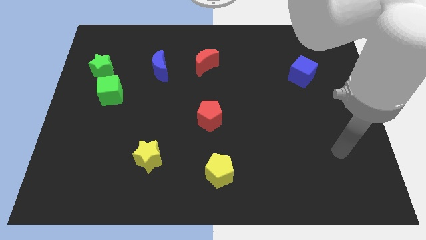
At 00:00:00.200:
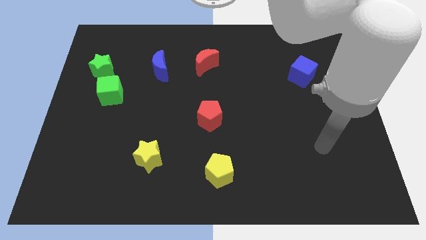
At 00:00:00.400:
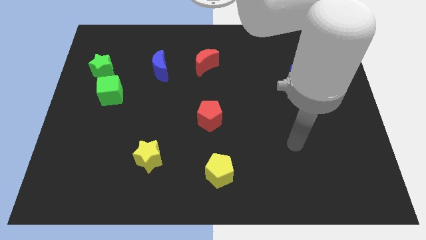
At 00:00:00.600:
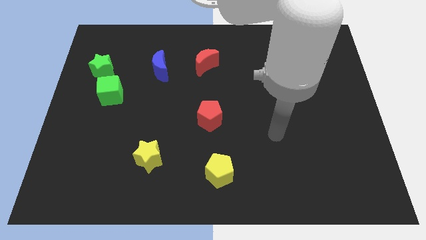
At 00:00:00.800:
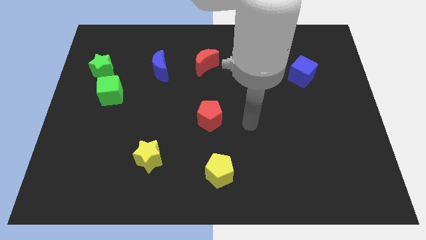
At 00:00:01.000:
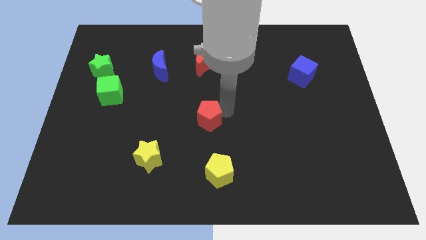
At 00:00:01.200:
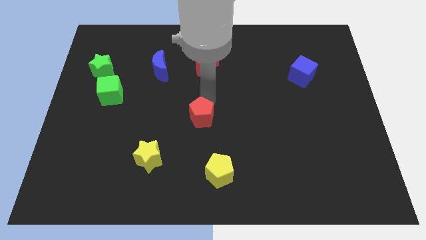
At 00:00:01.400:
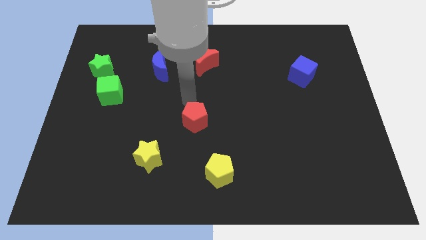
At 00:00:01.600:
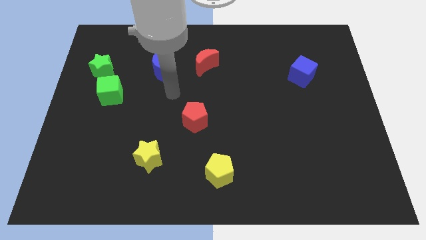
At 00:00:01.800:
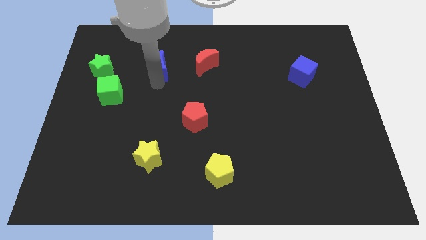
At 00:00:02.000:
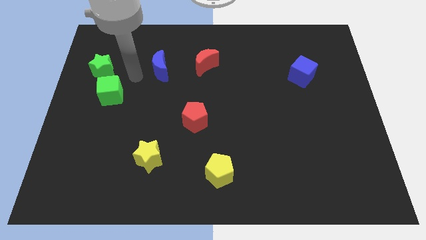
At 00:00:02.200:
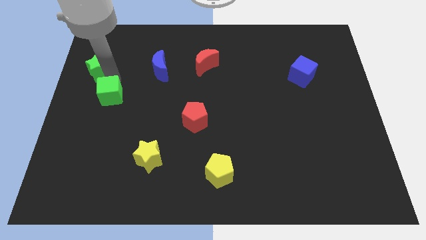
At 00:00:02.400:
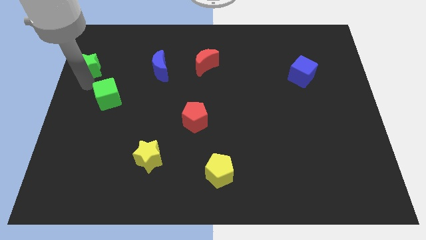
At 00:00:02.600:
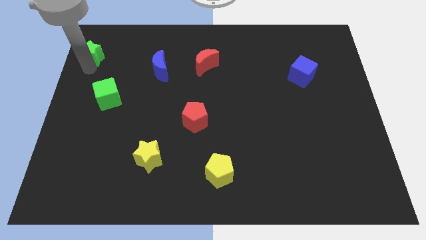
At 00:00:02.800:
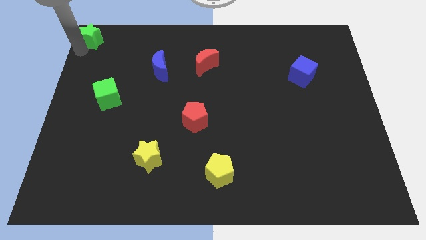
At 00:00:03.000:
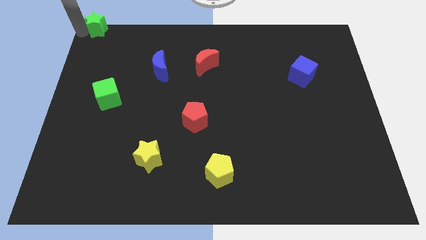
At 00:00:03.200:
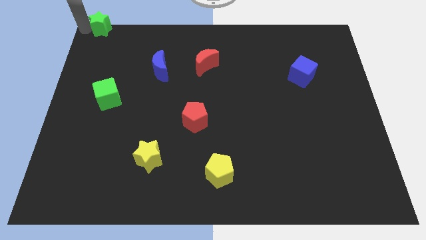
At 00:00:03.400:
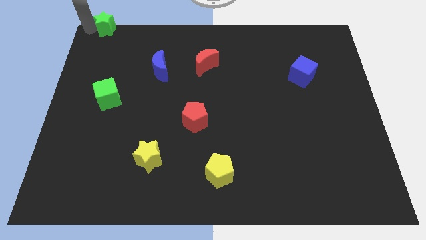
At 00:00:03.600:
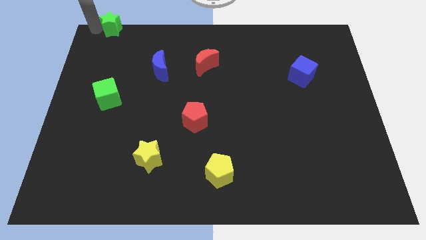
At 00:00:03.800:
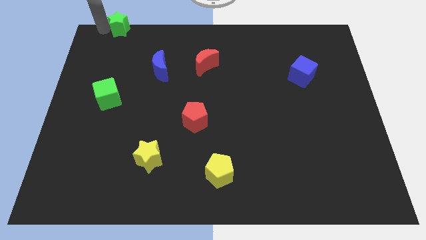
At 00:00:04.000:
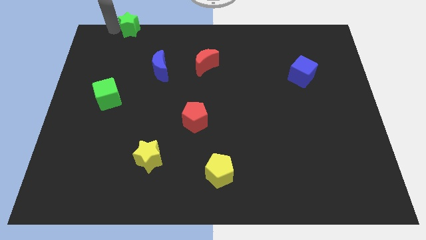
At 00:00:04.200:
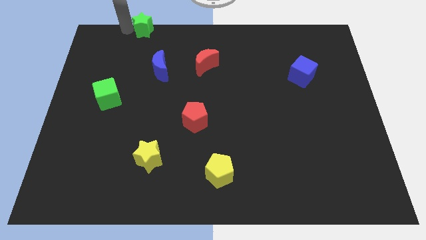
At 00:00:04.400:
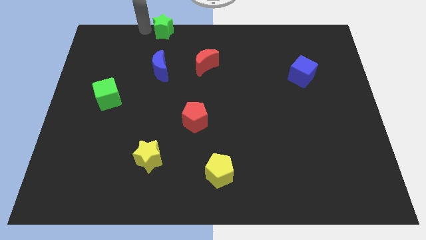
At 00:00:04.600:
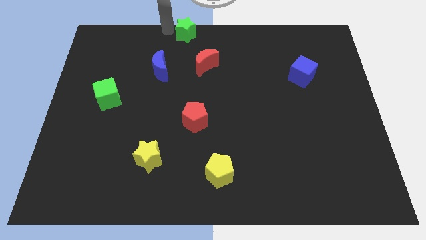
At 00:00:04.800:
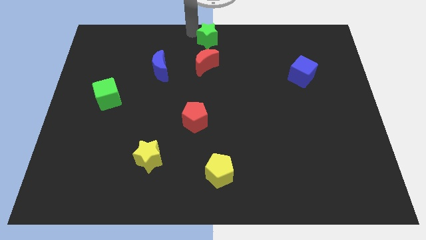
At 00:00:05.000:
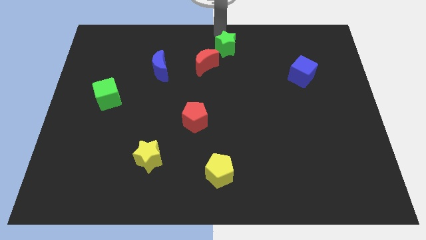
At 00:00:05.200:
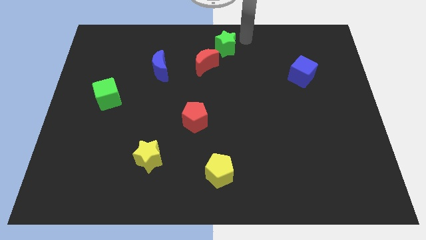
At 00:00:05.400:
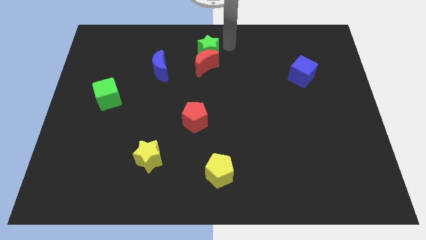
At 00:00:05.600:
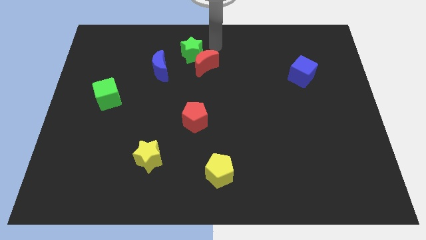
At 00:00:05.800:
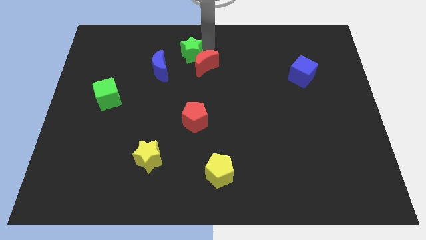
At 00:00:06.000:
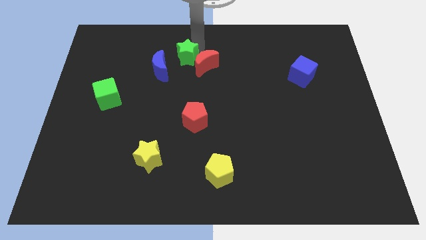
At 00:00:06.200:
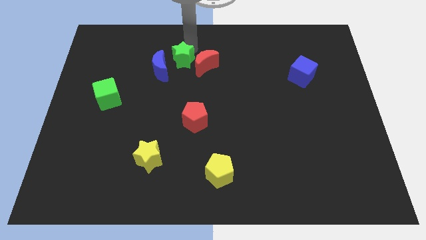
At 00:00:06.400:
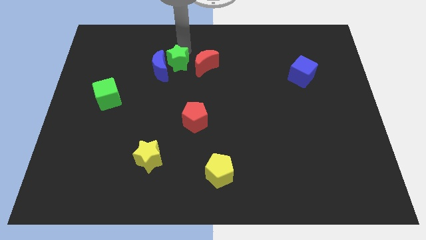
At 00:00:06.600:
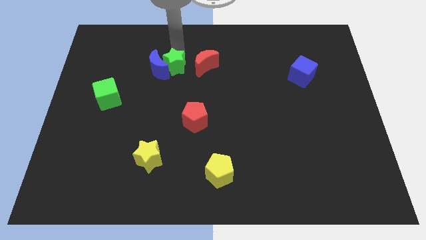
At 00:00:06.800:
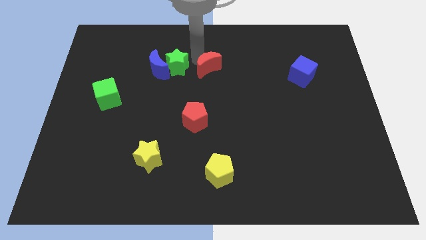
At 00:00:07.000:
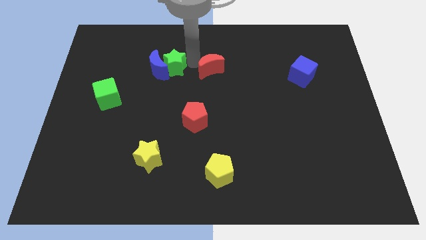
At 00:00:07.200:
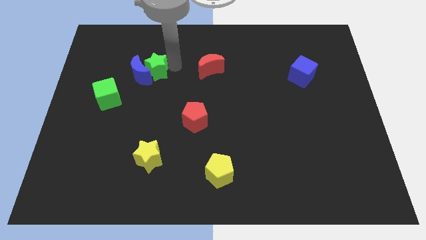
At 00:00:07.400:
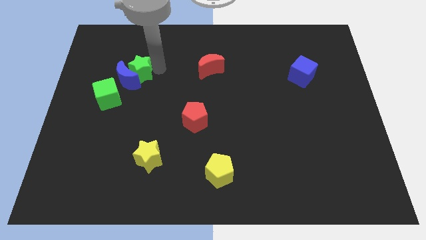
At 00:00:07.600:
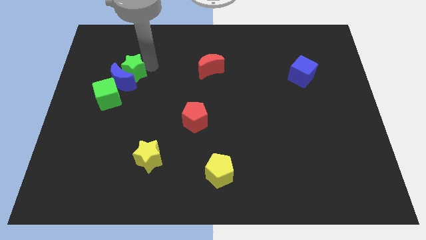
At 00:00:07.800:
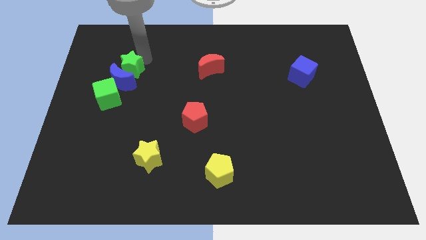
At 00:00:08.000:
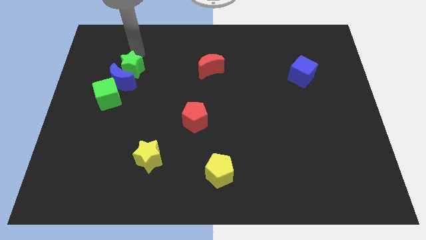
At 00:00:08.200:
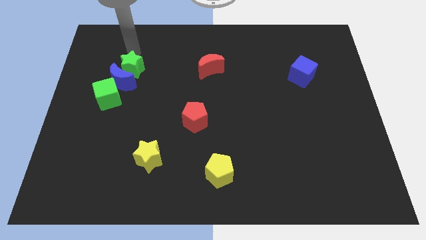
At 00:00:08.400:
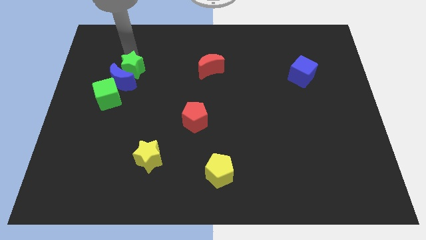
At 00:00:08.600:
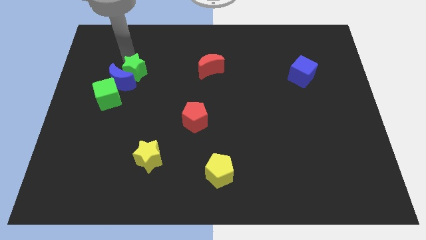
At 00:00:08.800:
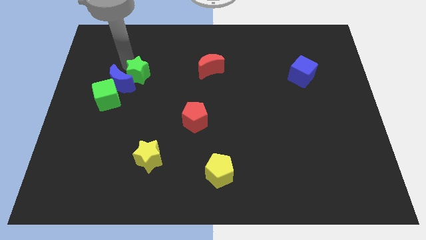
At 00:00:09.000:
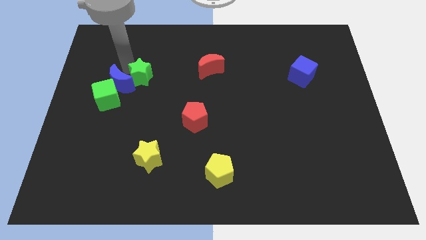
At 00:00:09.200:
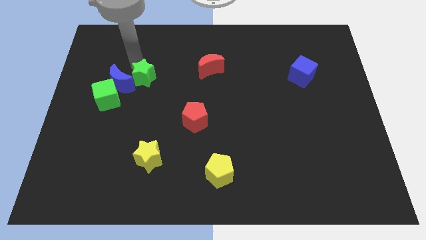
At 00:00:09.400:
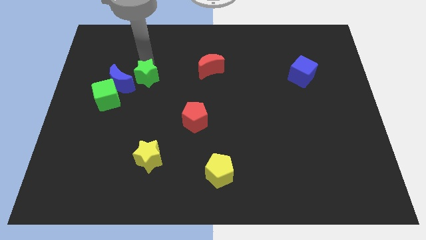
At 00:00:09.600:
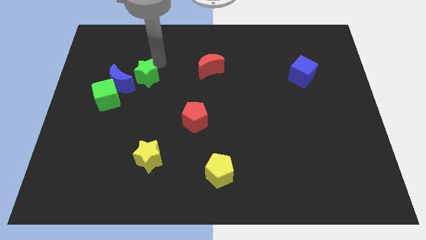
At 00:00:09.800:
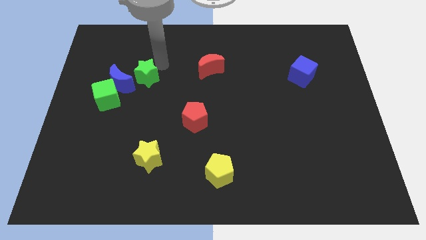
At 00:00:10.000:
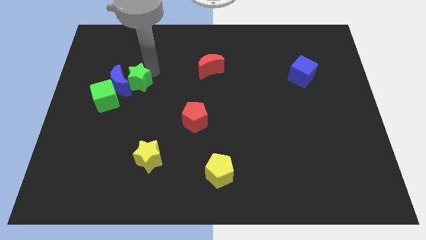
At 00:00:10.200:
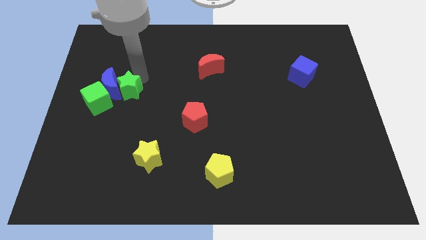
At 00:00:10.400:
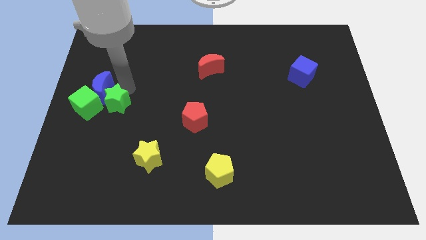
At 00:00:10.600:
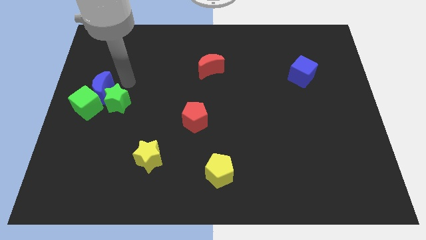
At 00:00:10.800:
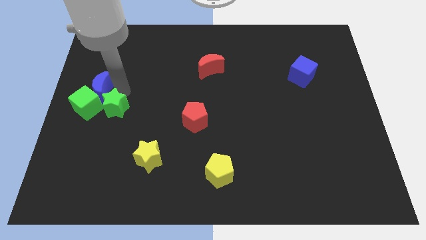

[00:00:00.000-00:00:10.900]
slide the green star to the bottom right side of the green cube

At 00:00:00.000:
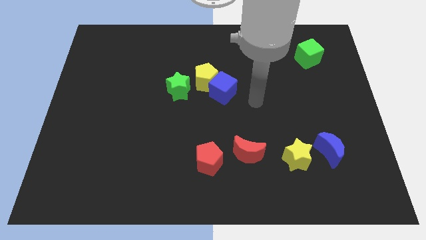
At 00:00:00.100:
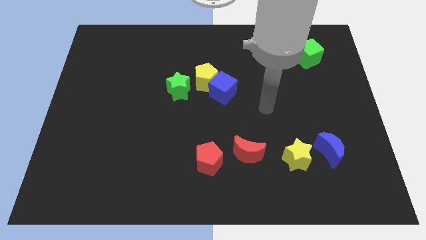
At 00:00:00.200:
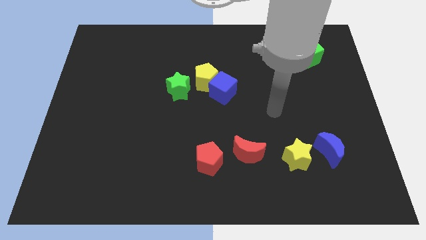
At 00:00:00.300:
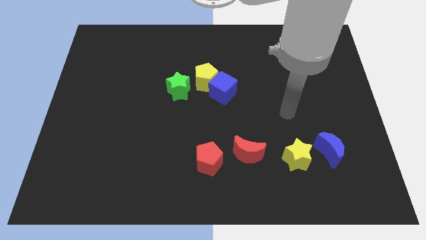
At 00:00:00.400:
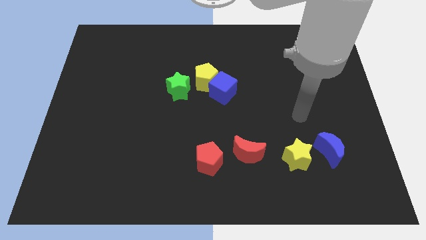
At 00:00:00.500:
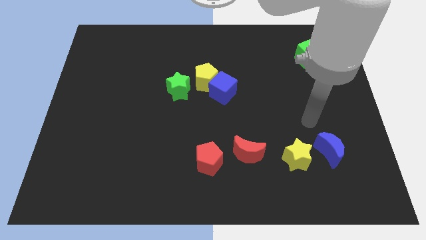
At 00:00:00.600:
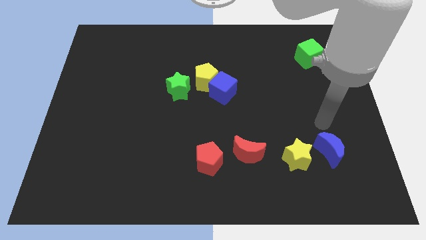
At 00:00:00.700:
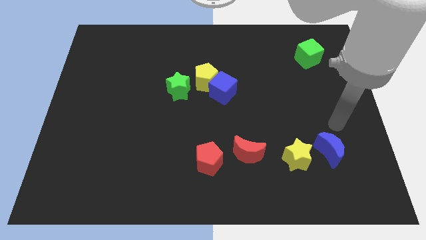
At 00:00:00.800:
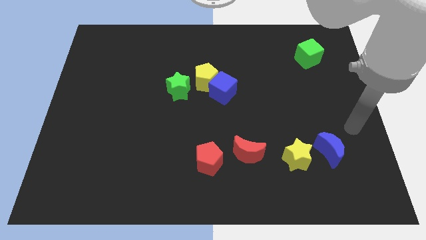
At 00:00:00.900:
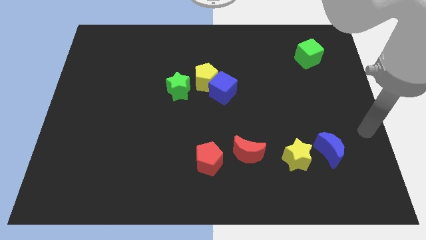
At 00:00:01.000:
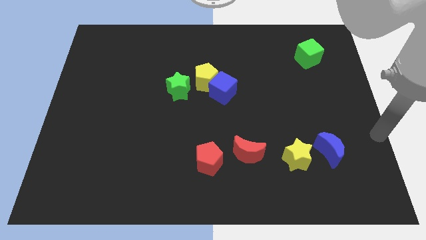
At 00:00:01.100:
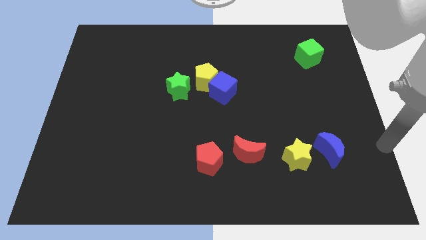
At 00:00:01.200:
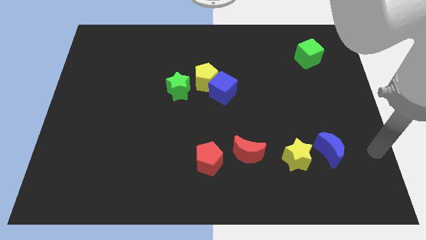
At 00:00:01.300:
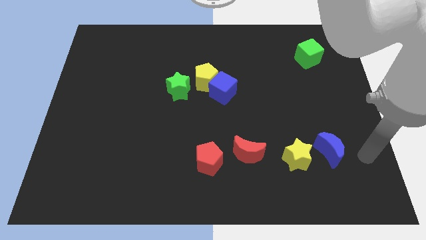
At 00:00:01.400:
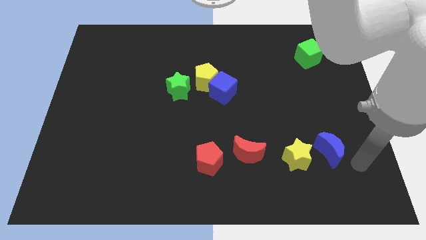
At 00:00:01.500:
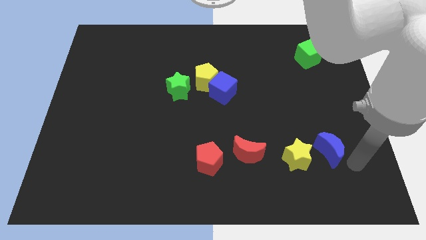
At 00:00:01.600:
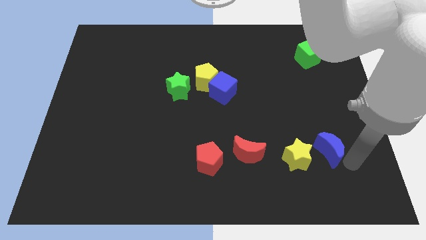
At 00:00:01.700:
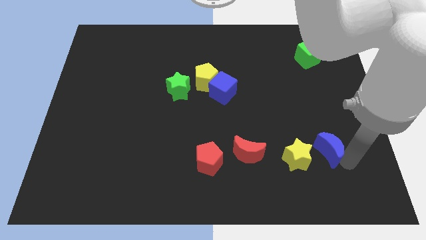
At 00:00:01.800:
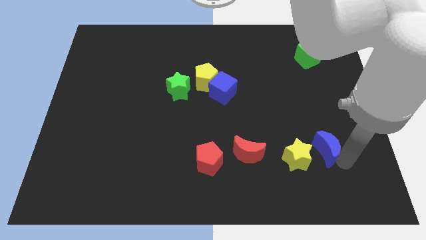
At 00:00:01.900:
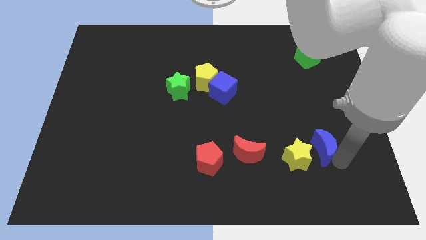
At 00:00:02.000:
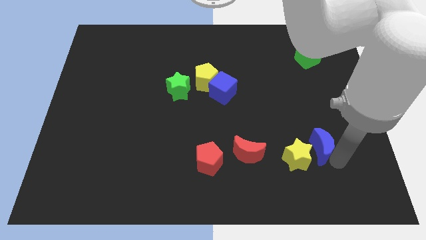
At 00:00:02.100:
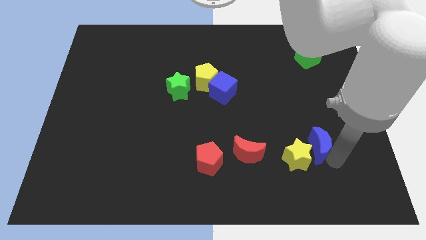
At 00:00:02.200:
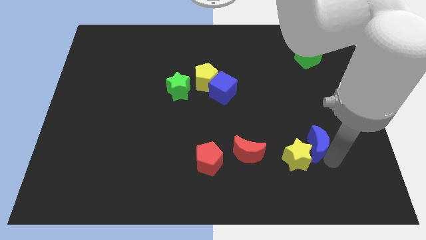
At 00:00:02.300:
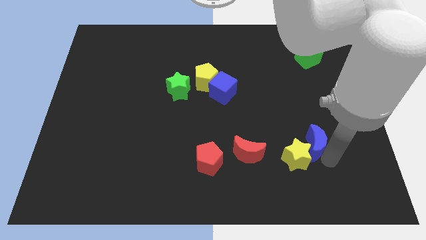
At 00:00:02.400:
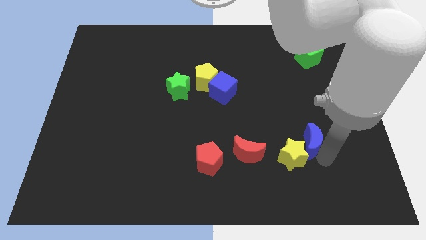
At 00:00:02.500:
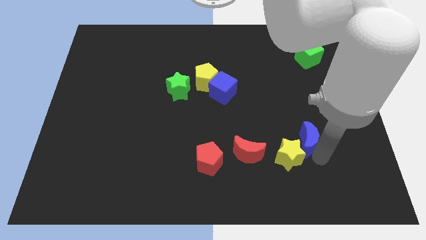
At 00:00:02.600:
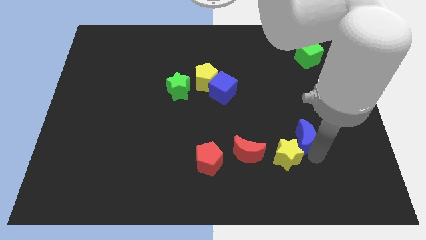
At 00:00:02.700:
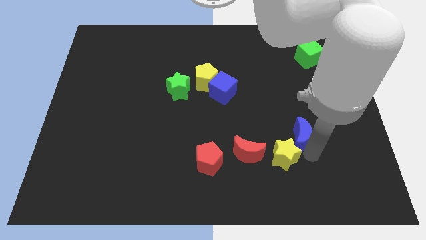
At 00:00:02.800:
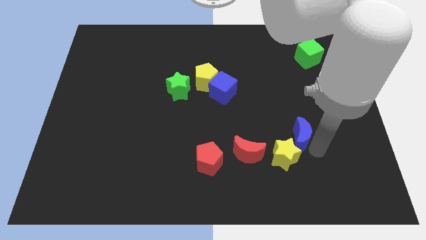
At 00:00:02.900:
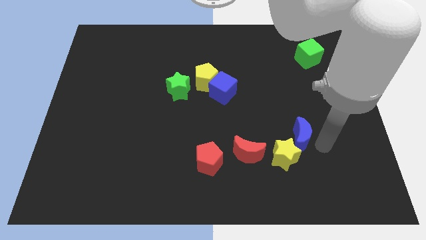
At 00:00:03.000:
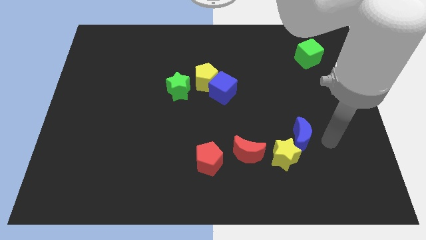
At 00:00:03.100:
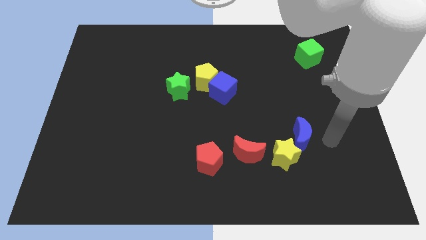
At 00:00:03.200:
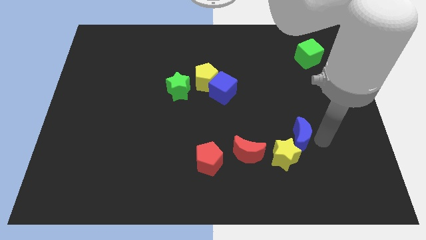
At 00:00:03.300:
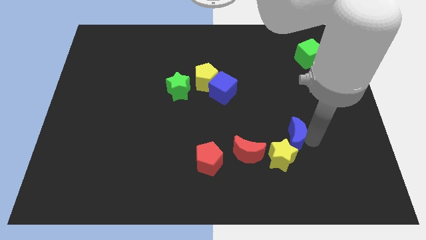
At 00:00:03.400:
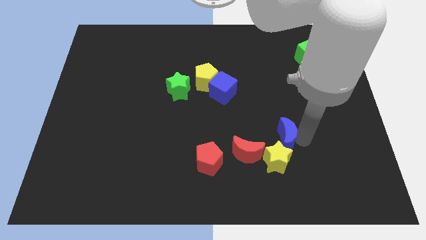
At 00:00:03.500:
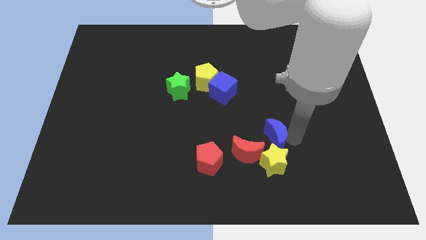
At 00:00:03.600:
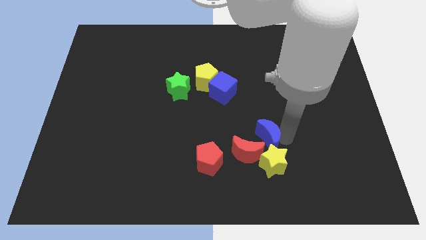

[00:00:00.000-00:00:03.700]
slide the blue moon to the top left of the yellow star
